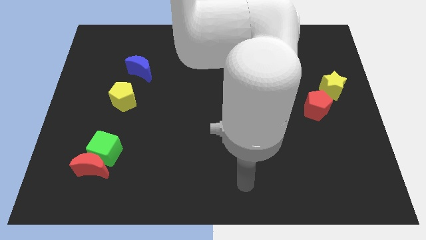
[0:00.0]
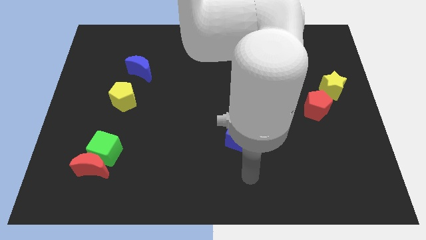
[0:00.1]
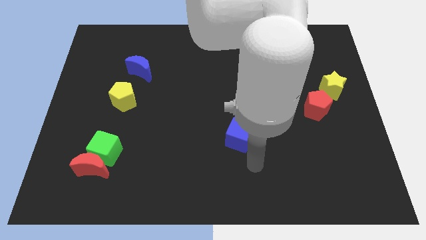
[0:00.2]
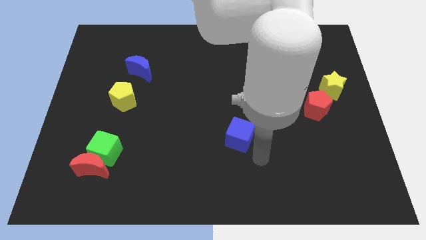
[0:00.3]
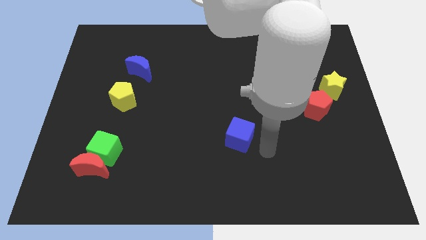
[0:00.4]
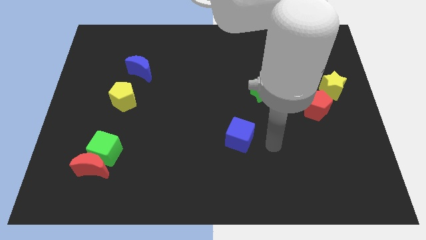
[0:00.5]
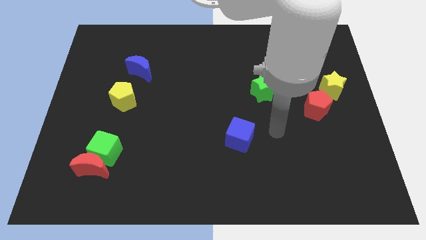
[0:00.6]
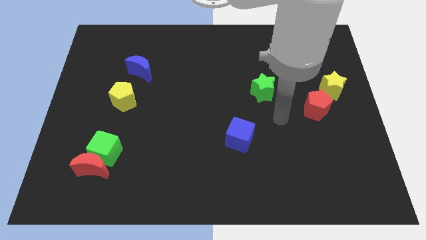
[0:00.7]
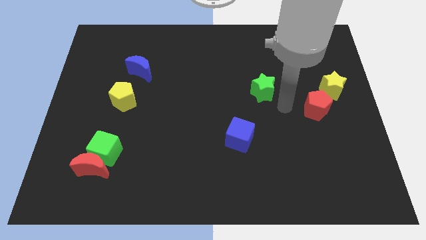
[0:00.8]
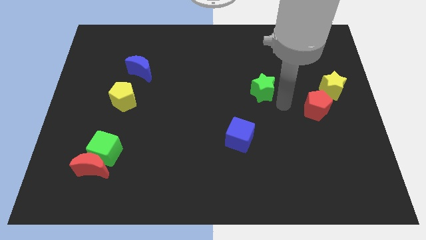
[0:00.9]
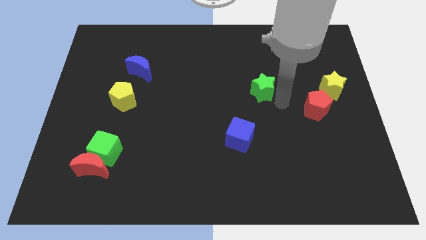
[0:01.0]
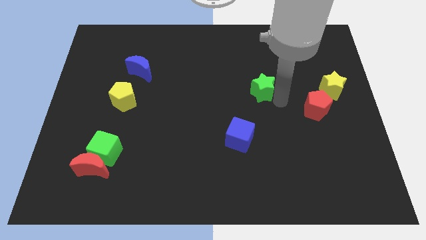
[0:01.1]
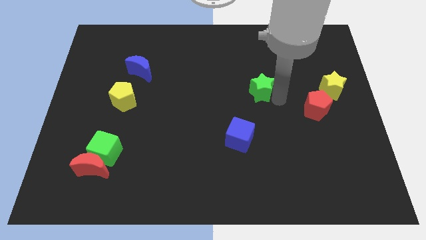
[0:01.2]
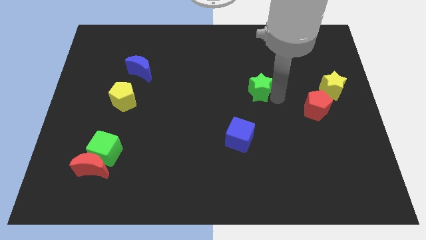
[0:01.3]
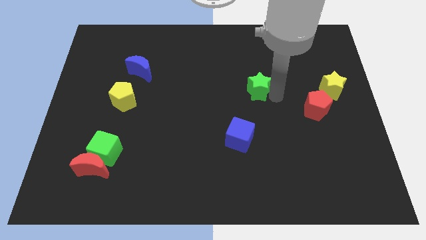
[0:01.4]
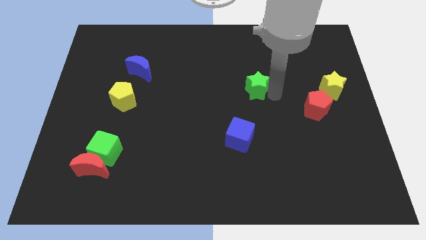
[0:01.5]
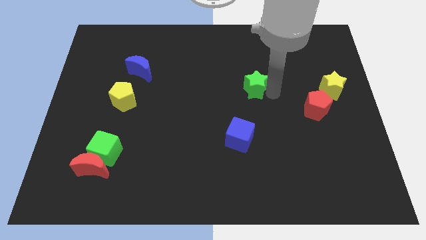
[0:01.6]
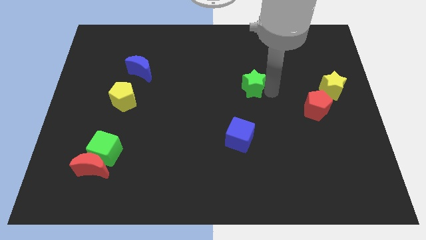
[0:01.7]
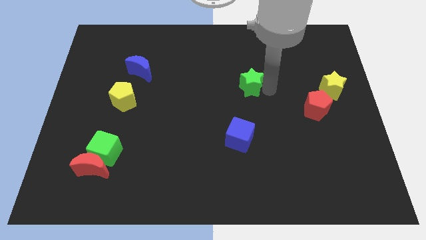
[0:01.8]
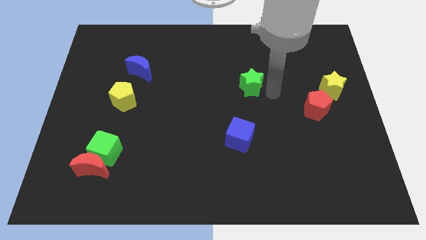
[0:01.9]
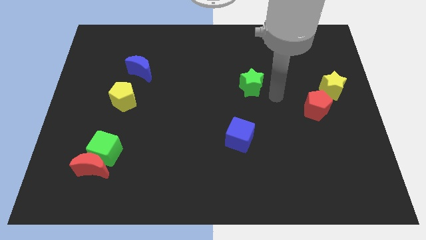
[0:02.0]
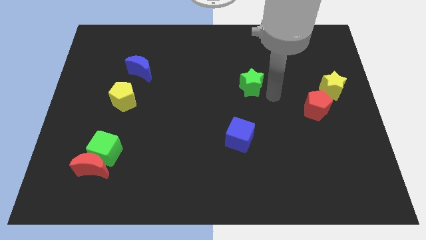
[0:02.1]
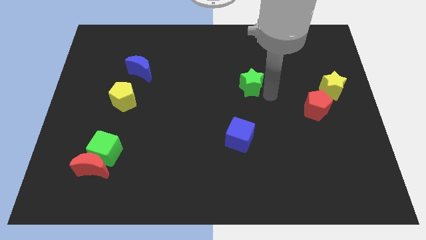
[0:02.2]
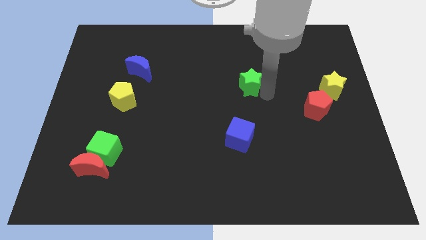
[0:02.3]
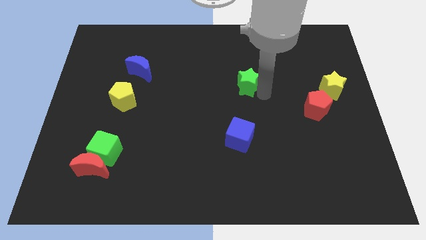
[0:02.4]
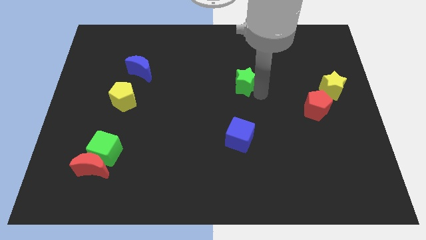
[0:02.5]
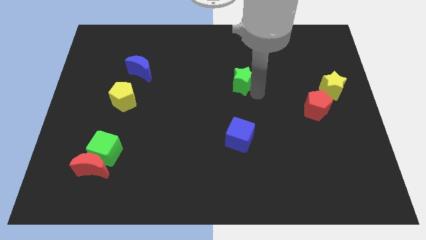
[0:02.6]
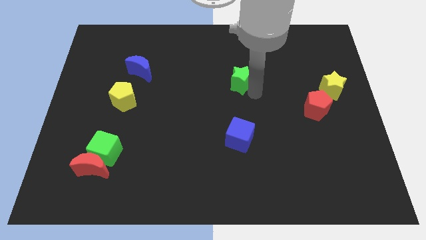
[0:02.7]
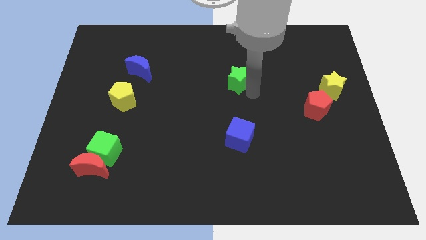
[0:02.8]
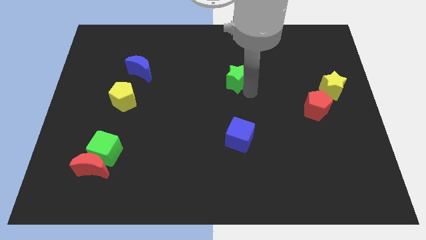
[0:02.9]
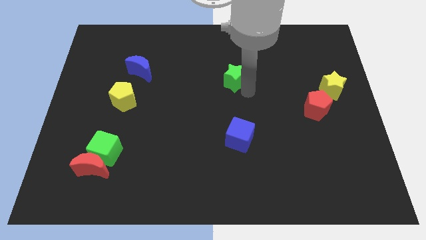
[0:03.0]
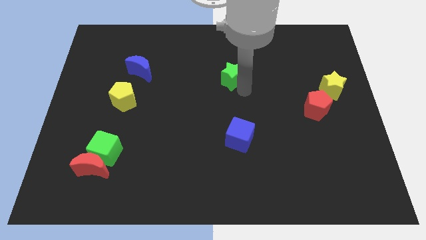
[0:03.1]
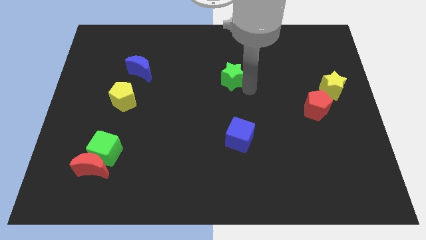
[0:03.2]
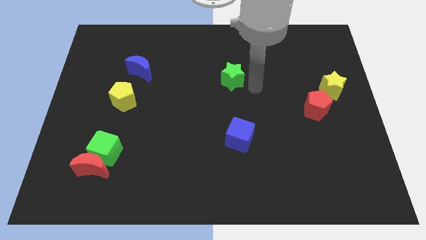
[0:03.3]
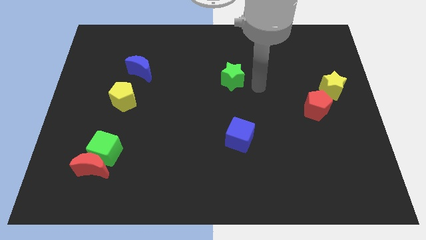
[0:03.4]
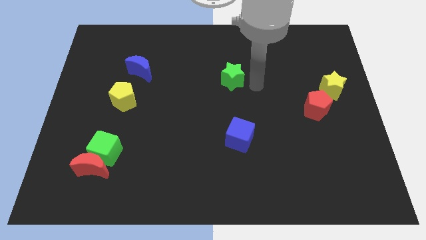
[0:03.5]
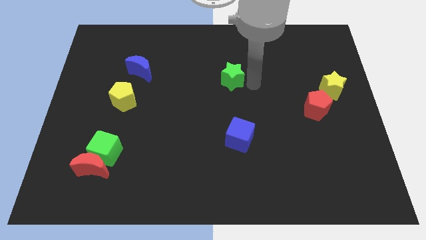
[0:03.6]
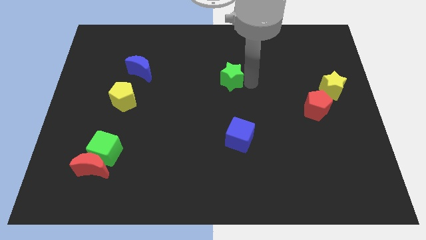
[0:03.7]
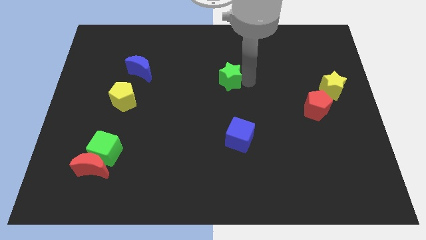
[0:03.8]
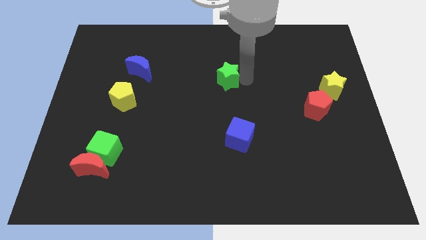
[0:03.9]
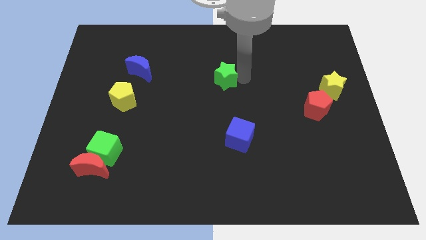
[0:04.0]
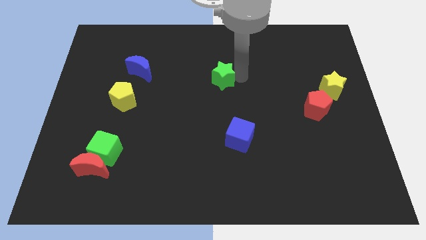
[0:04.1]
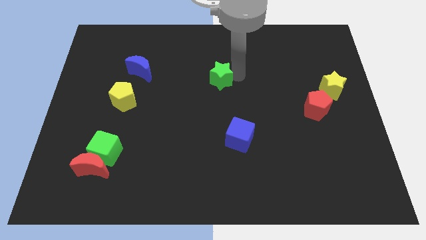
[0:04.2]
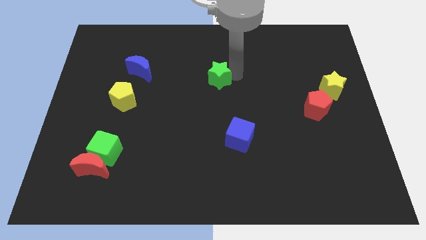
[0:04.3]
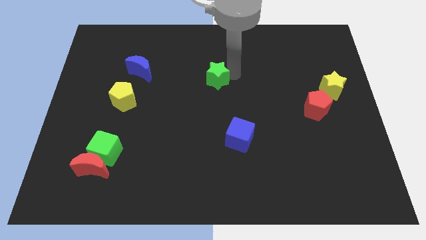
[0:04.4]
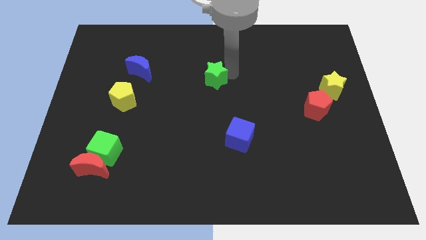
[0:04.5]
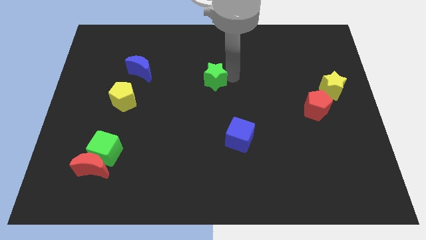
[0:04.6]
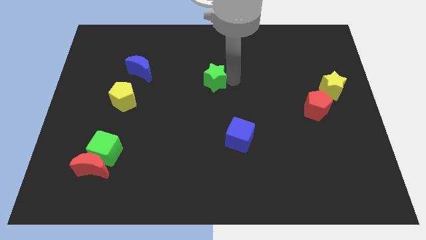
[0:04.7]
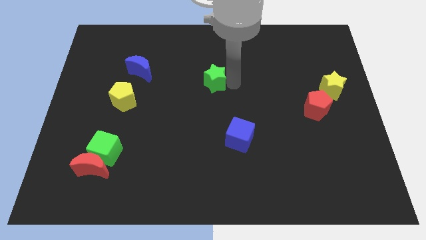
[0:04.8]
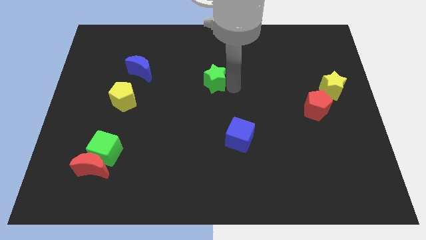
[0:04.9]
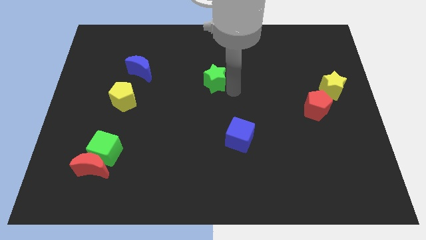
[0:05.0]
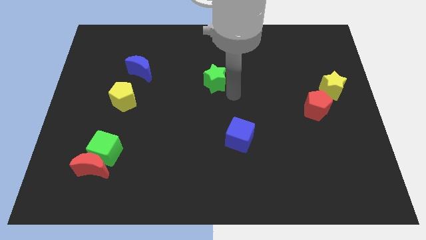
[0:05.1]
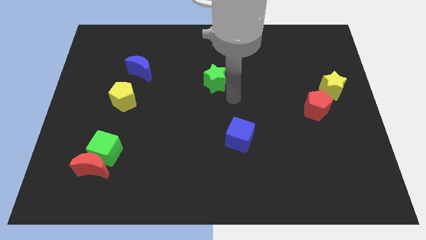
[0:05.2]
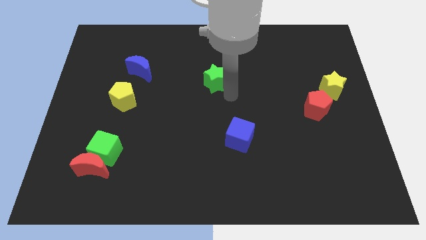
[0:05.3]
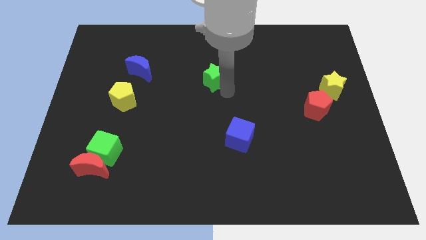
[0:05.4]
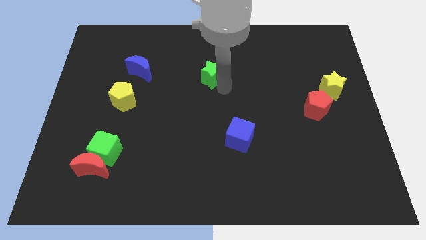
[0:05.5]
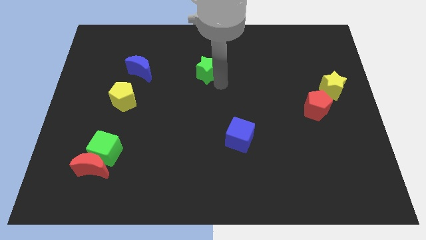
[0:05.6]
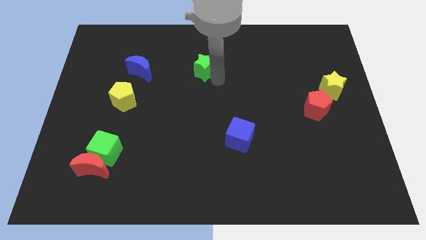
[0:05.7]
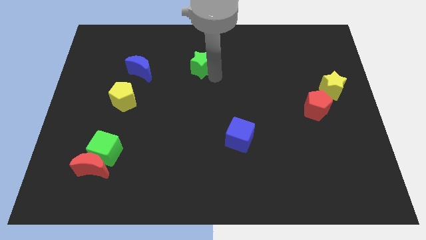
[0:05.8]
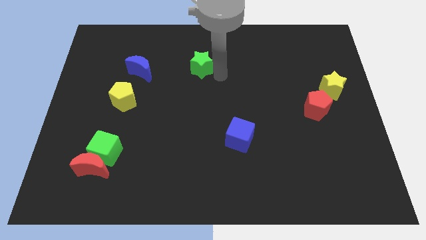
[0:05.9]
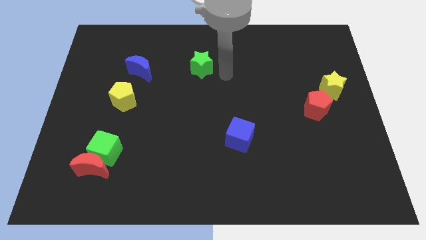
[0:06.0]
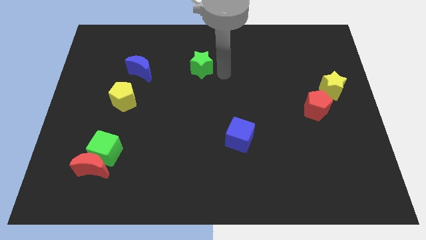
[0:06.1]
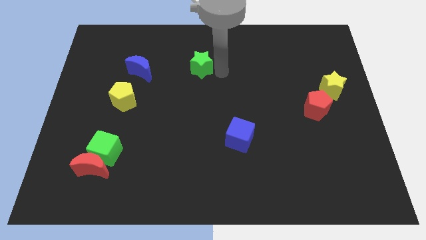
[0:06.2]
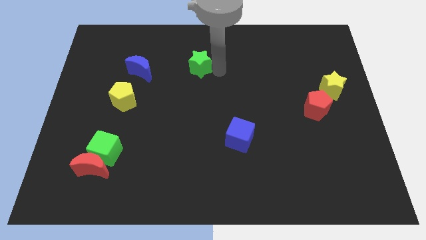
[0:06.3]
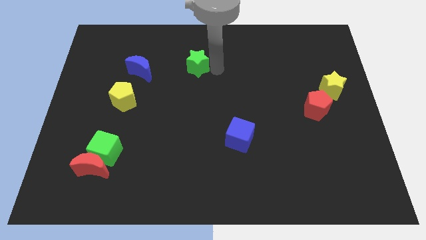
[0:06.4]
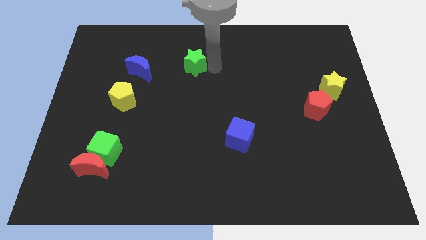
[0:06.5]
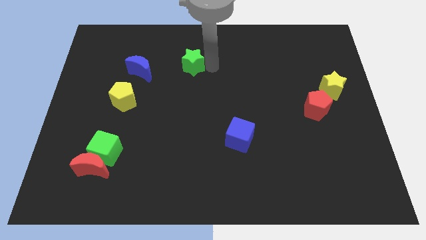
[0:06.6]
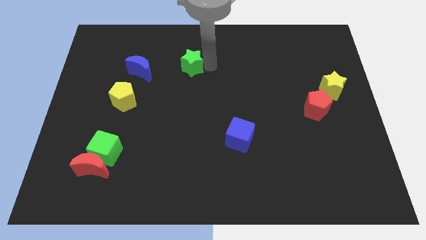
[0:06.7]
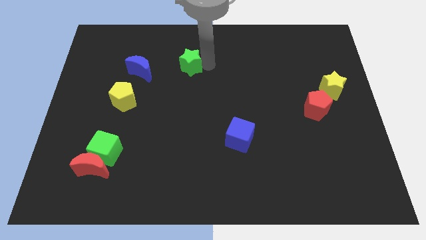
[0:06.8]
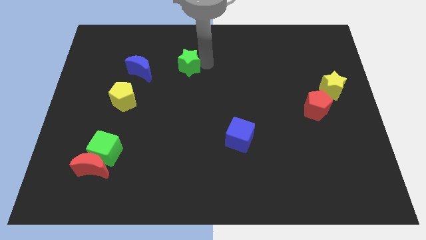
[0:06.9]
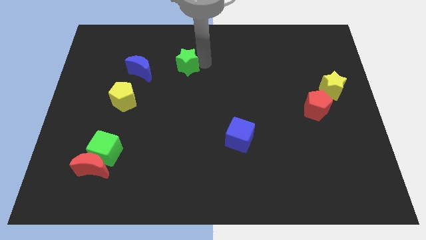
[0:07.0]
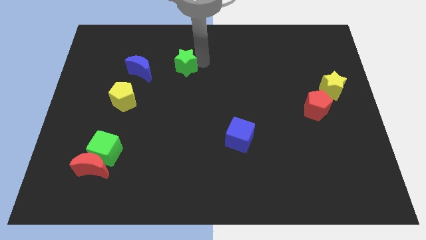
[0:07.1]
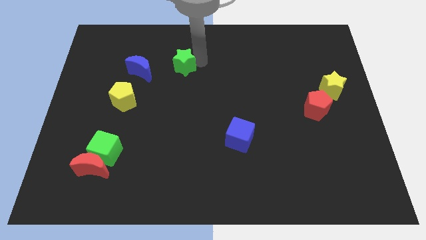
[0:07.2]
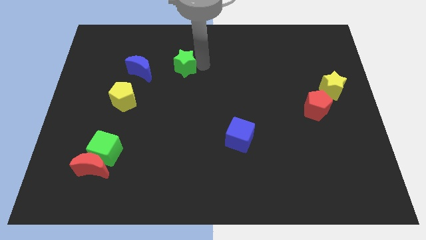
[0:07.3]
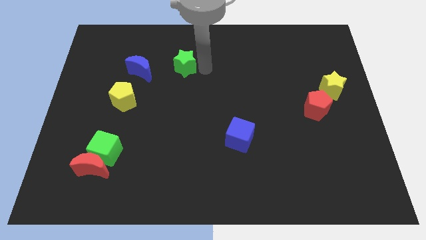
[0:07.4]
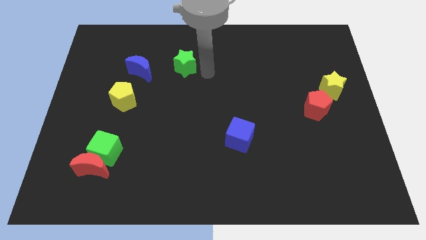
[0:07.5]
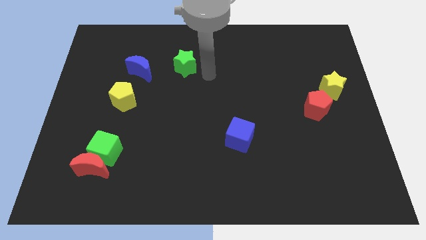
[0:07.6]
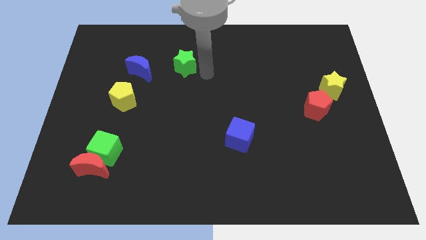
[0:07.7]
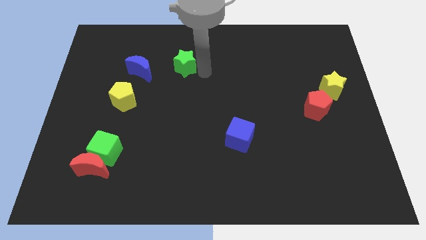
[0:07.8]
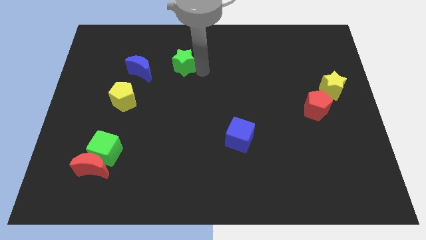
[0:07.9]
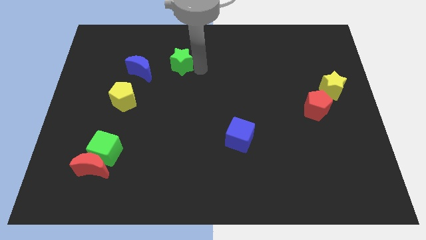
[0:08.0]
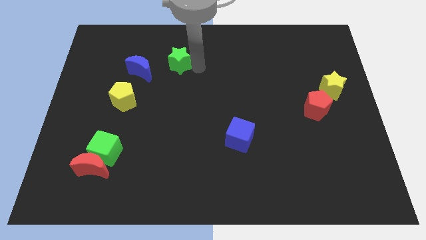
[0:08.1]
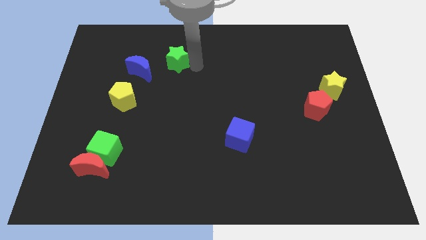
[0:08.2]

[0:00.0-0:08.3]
slide the green star to the top right side of the blue moon
